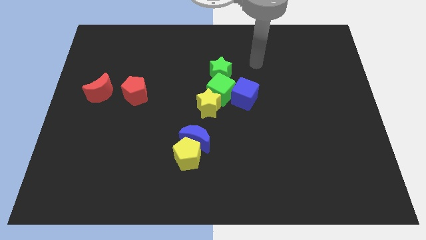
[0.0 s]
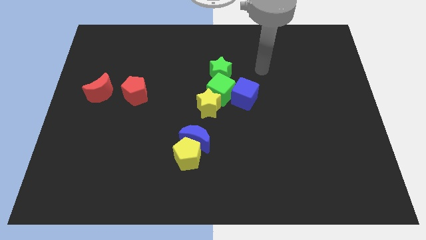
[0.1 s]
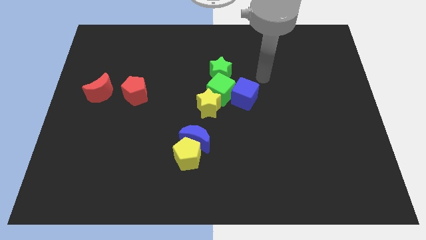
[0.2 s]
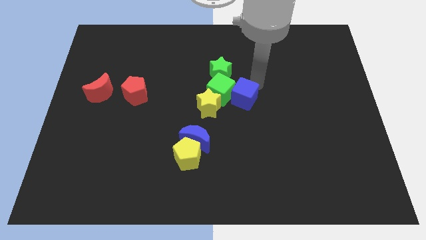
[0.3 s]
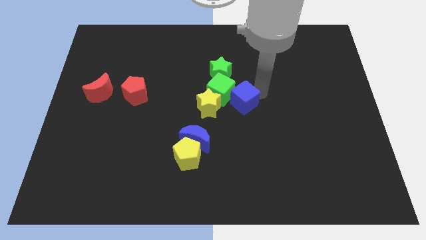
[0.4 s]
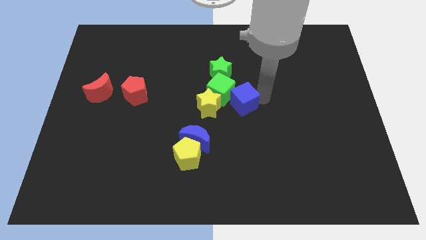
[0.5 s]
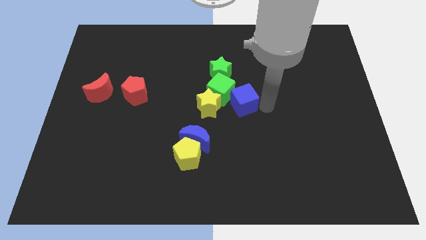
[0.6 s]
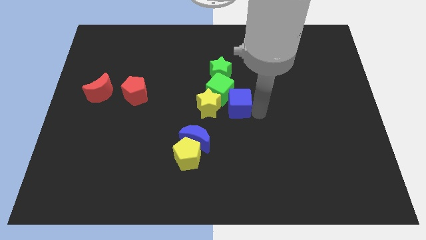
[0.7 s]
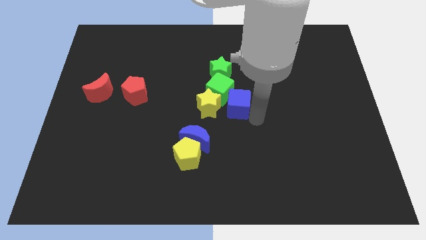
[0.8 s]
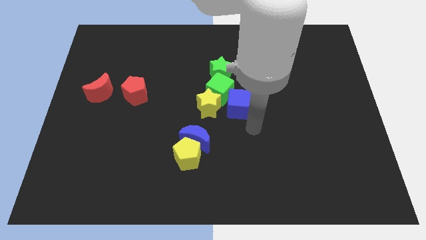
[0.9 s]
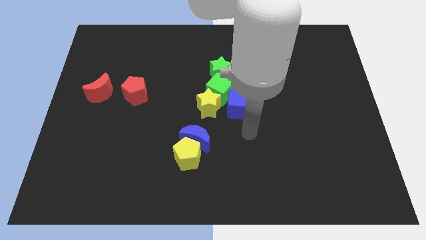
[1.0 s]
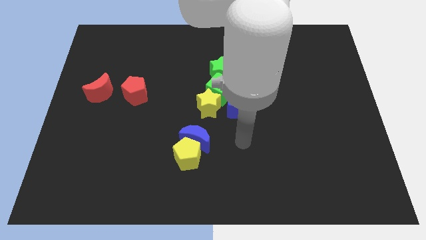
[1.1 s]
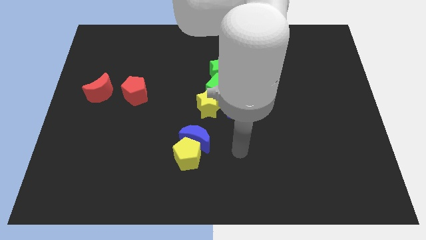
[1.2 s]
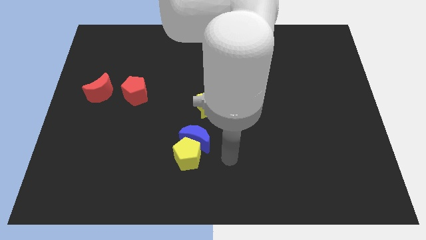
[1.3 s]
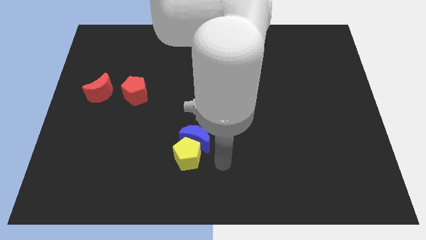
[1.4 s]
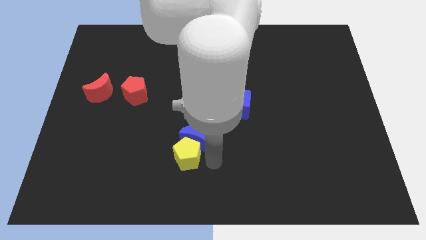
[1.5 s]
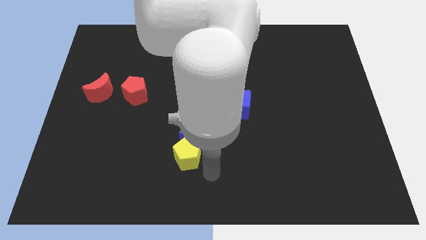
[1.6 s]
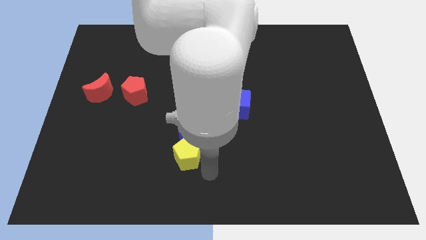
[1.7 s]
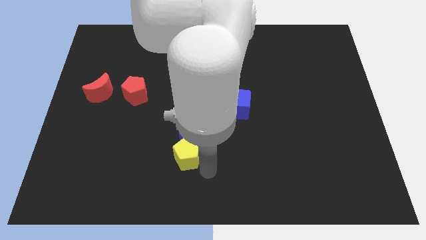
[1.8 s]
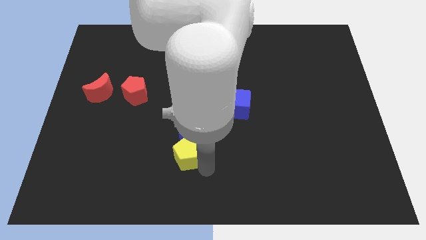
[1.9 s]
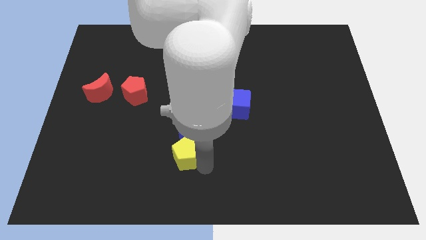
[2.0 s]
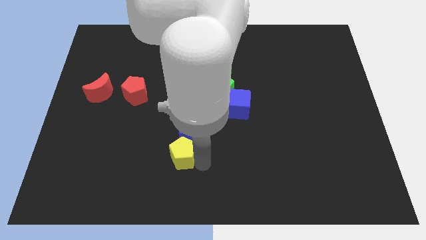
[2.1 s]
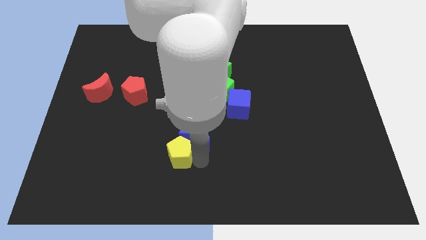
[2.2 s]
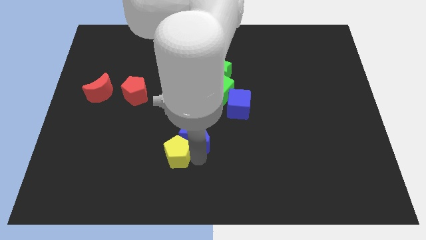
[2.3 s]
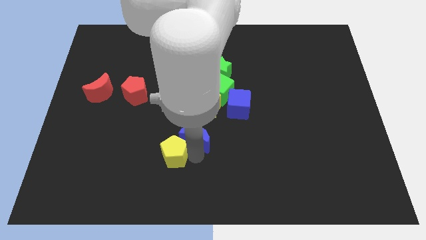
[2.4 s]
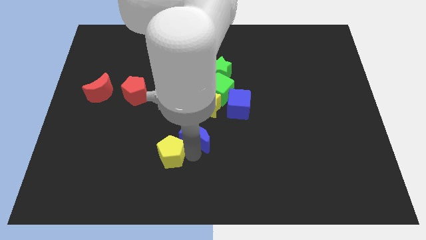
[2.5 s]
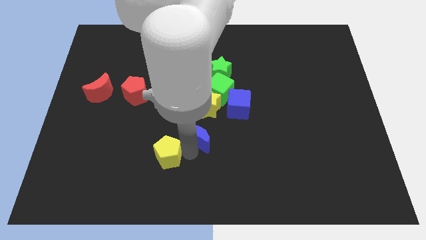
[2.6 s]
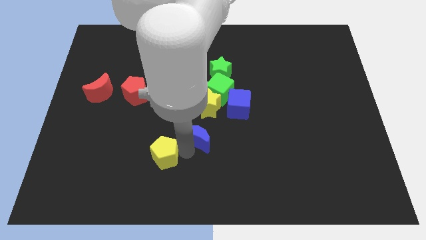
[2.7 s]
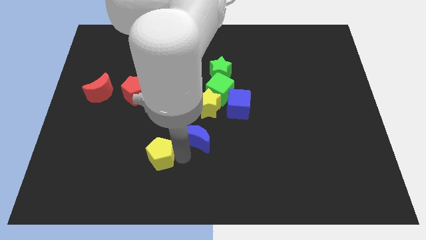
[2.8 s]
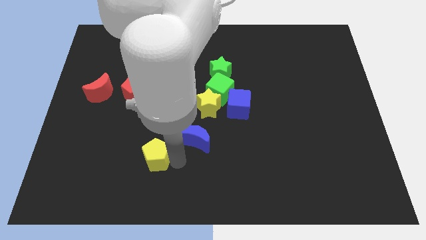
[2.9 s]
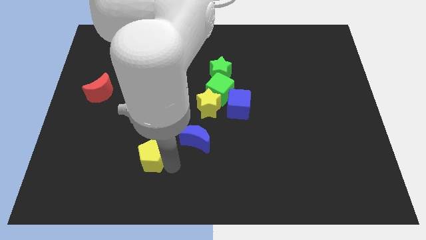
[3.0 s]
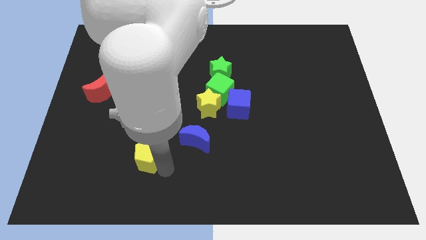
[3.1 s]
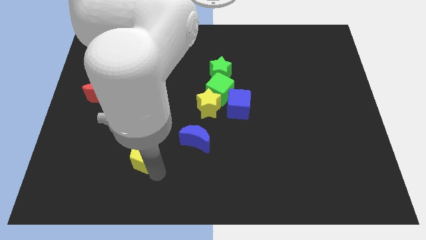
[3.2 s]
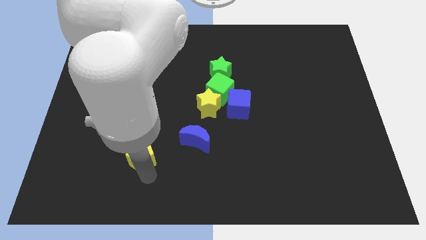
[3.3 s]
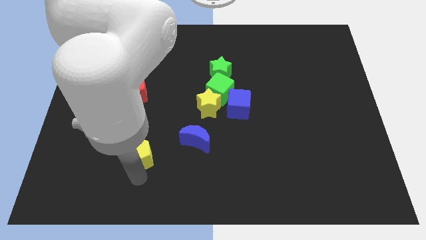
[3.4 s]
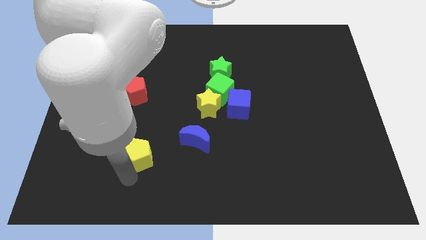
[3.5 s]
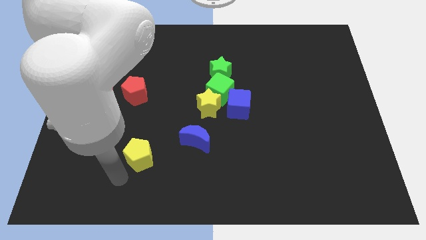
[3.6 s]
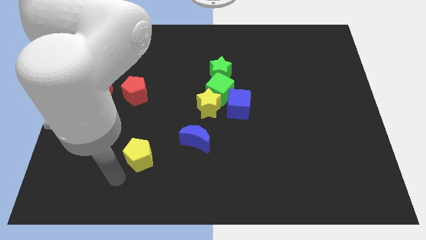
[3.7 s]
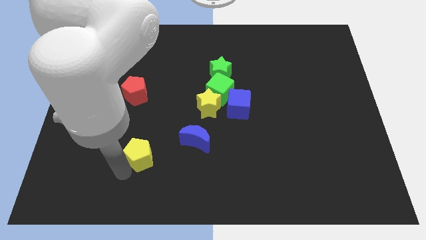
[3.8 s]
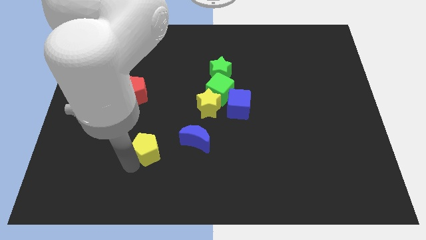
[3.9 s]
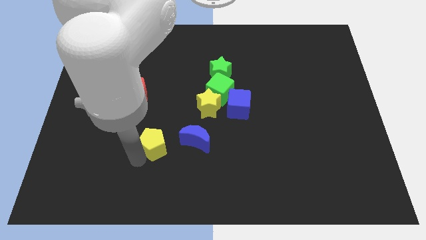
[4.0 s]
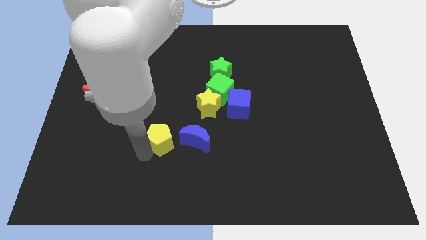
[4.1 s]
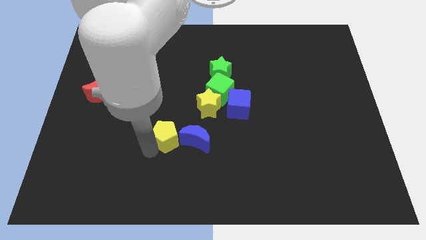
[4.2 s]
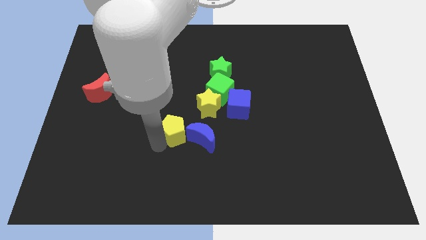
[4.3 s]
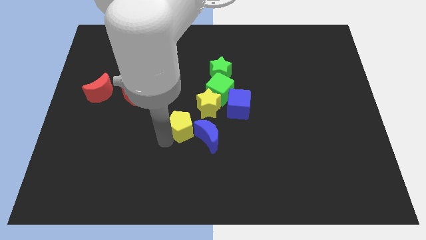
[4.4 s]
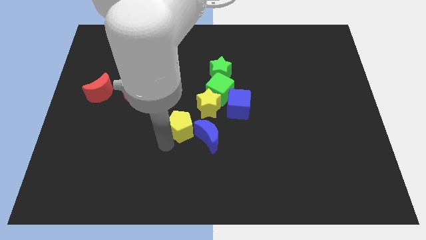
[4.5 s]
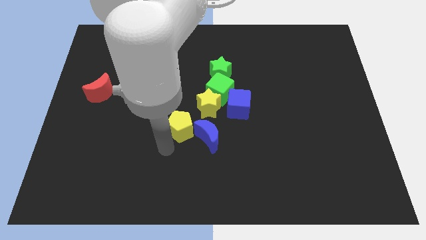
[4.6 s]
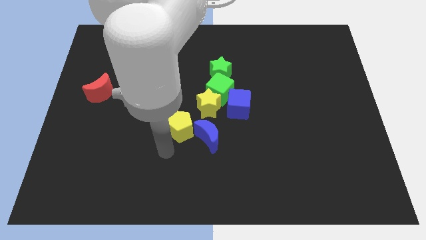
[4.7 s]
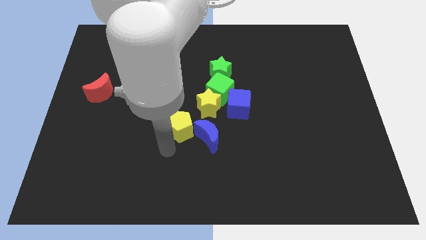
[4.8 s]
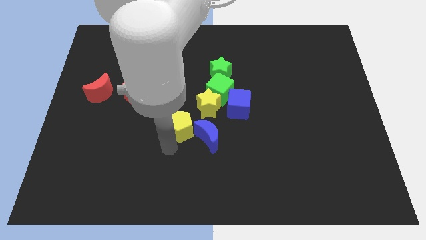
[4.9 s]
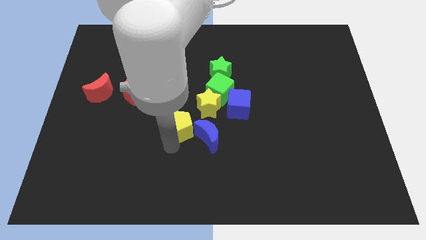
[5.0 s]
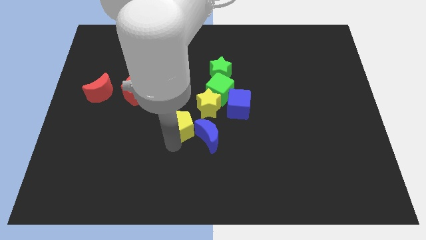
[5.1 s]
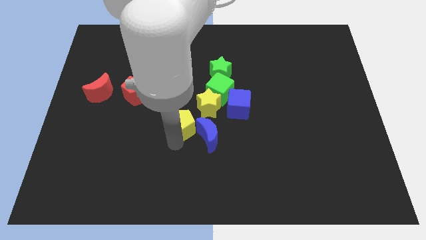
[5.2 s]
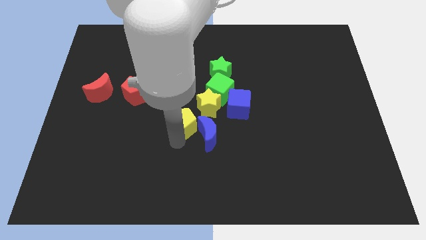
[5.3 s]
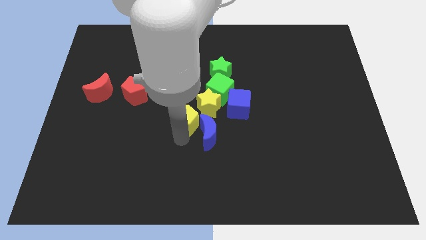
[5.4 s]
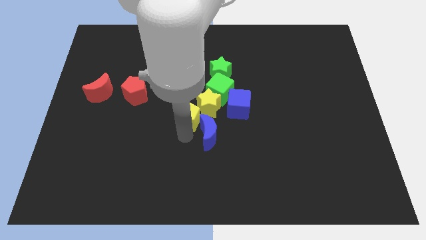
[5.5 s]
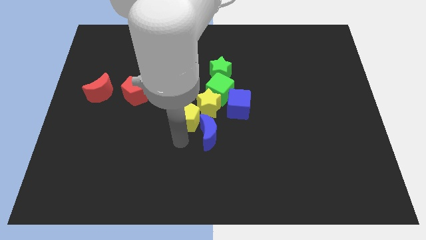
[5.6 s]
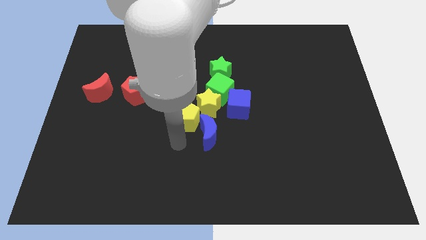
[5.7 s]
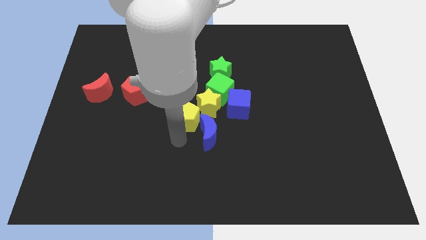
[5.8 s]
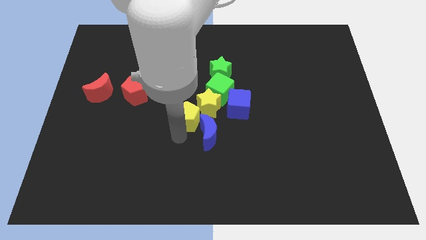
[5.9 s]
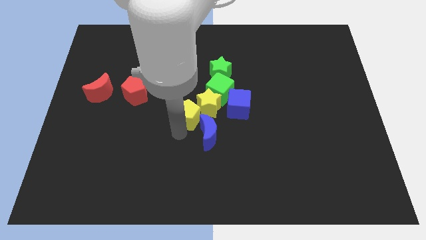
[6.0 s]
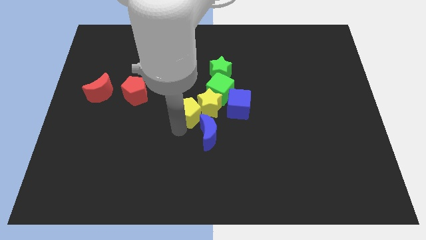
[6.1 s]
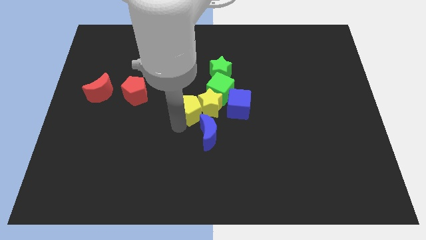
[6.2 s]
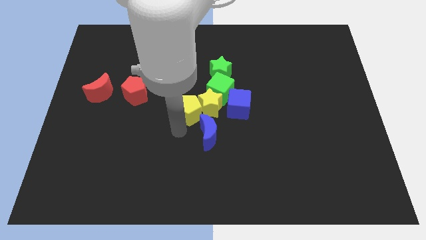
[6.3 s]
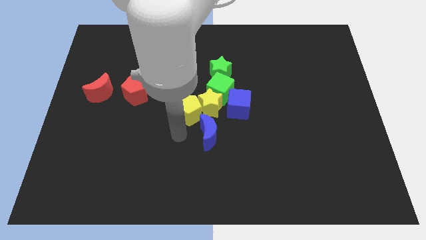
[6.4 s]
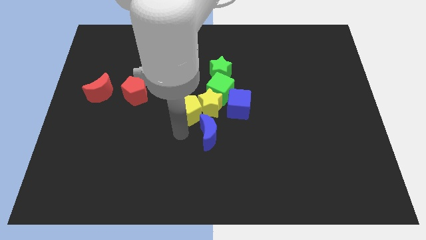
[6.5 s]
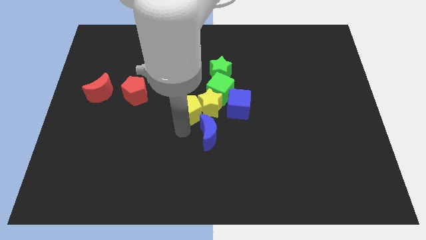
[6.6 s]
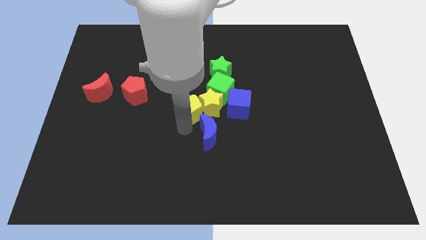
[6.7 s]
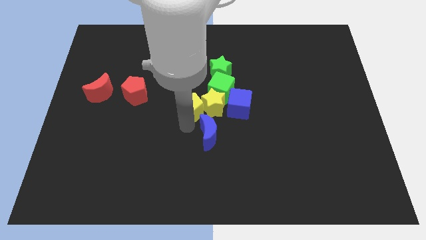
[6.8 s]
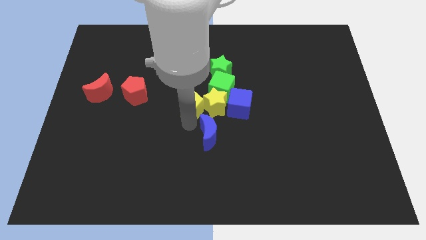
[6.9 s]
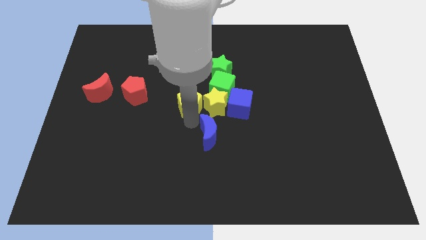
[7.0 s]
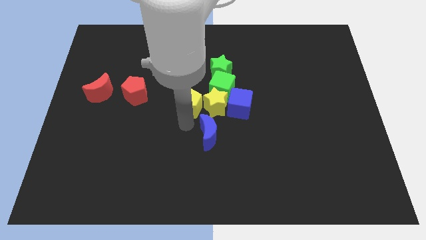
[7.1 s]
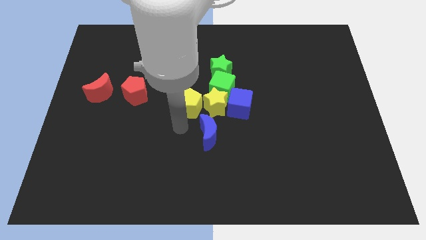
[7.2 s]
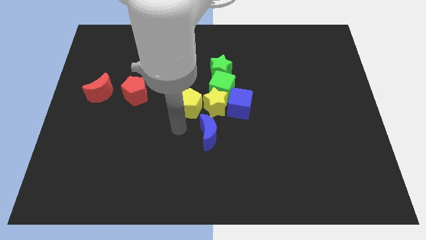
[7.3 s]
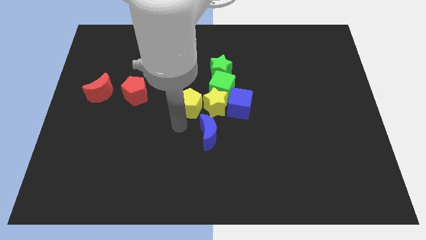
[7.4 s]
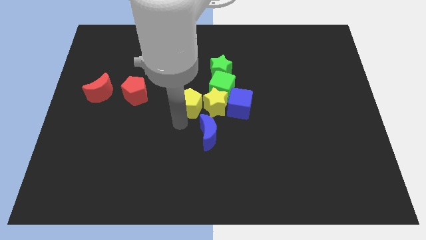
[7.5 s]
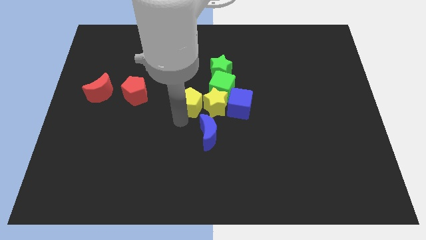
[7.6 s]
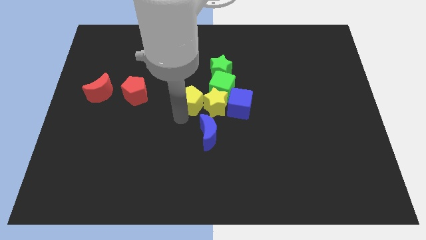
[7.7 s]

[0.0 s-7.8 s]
push the yellow pentagon diagonally down and to the left of the green star
